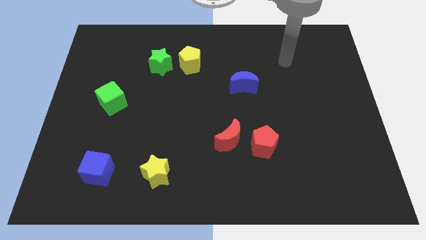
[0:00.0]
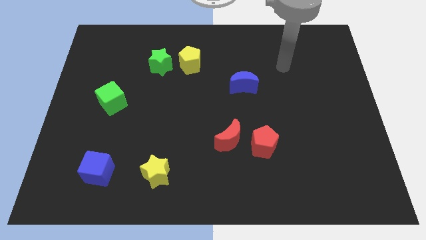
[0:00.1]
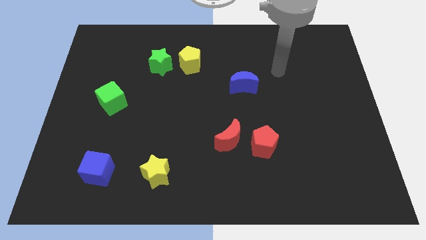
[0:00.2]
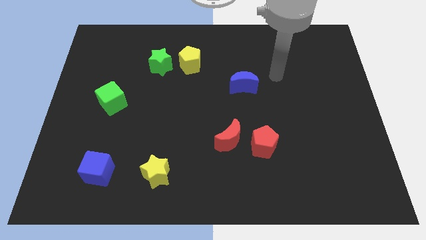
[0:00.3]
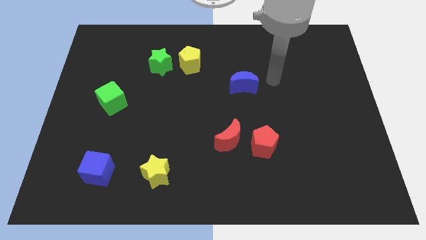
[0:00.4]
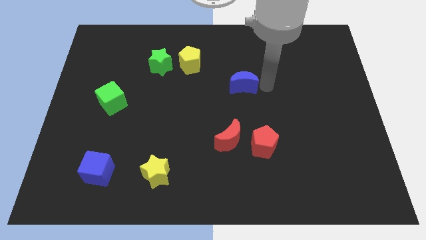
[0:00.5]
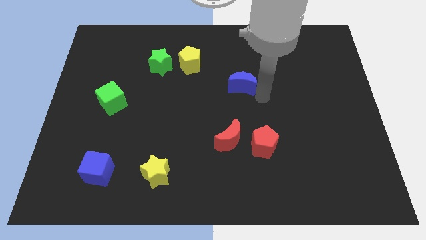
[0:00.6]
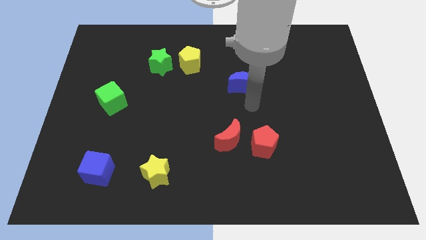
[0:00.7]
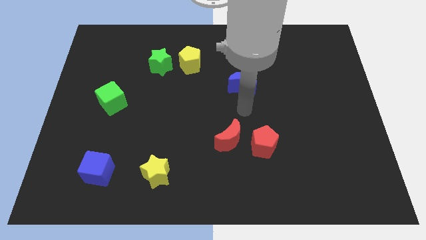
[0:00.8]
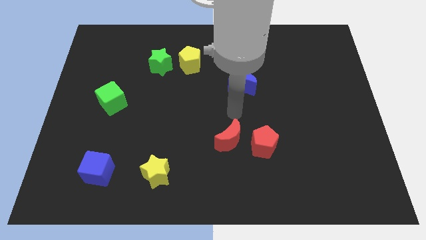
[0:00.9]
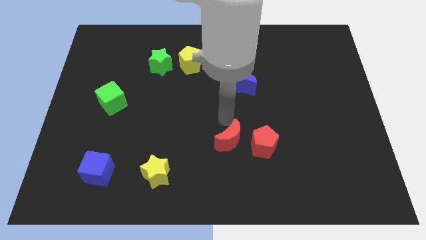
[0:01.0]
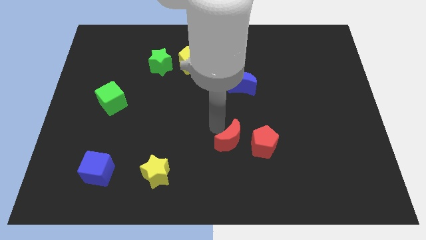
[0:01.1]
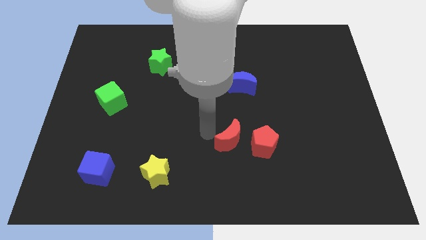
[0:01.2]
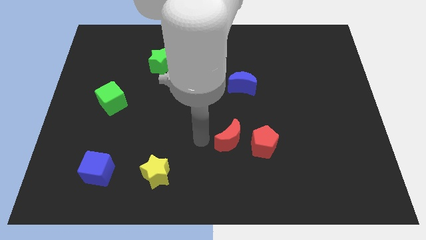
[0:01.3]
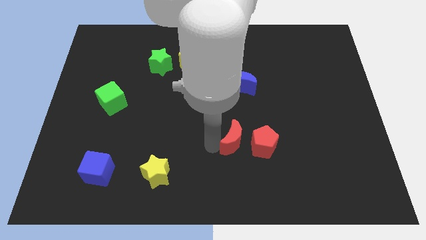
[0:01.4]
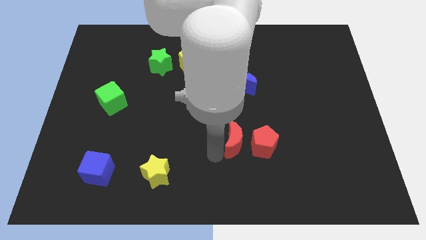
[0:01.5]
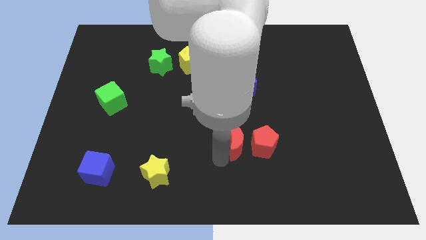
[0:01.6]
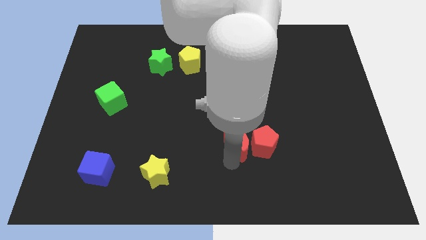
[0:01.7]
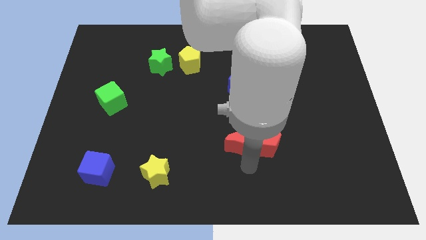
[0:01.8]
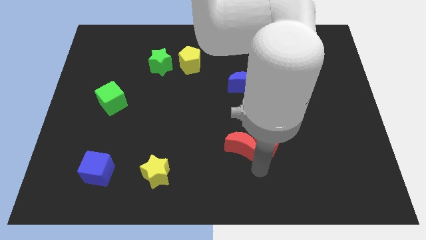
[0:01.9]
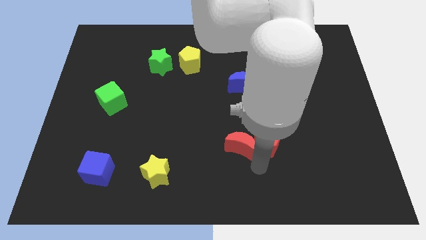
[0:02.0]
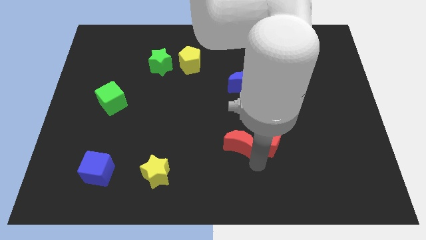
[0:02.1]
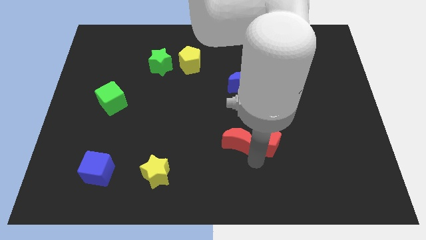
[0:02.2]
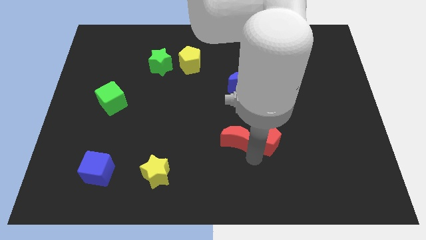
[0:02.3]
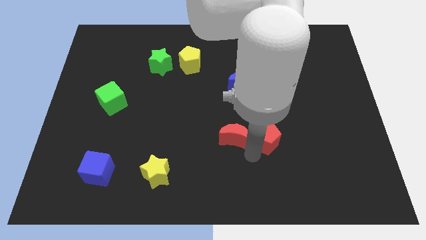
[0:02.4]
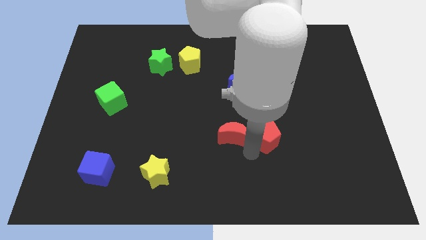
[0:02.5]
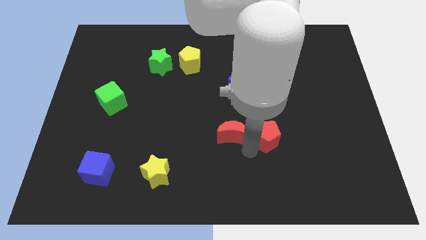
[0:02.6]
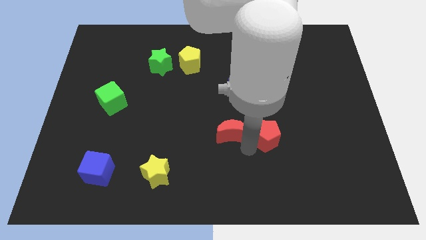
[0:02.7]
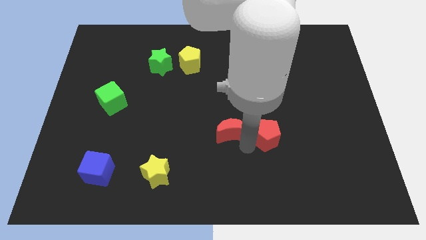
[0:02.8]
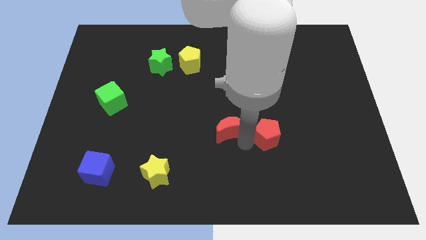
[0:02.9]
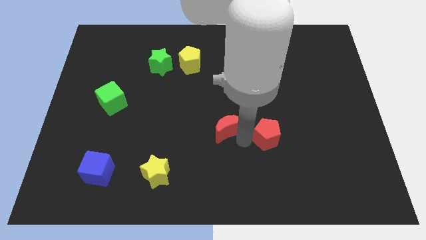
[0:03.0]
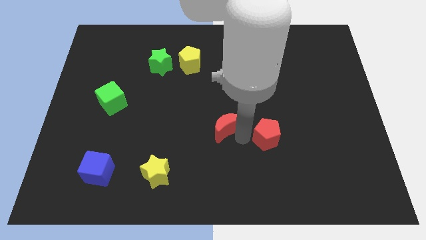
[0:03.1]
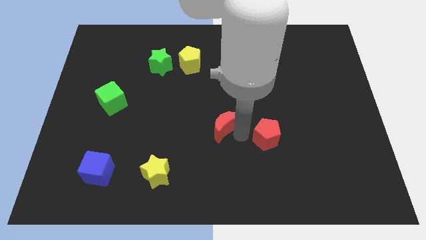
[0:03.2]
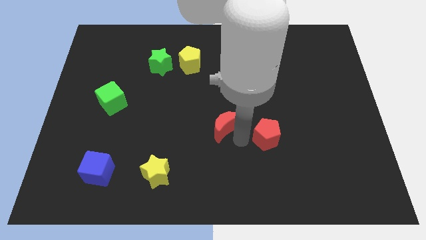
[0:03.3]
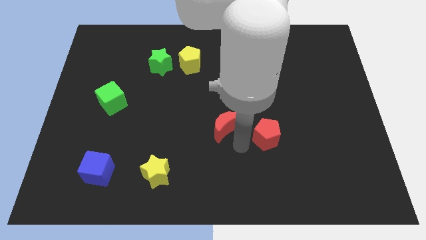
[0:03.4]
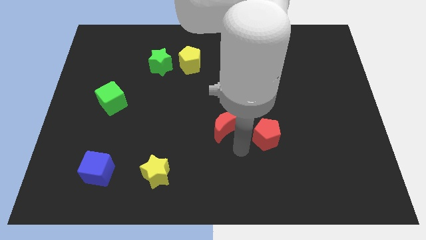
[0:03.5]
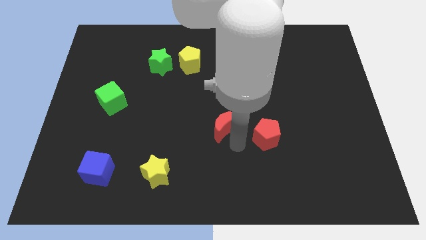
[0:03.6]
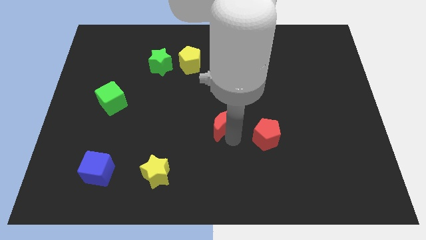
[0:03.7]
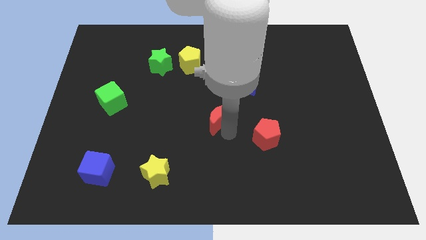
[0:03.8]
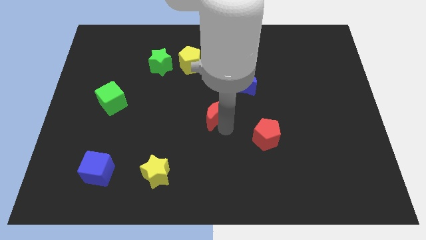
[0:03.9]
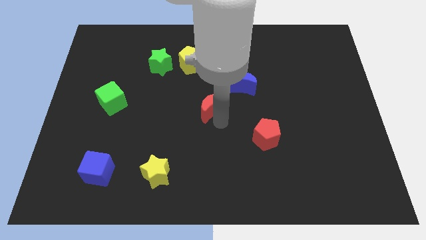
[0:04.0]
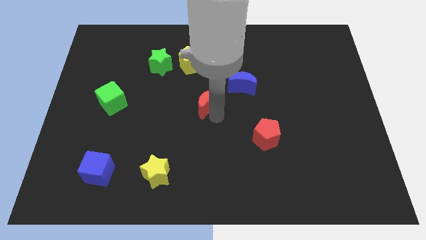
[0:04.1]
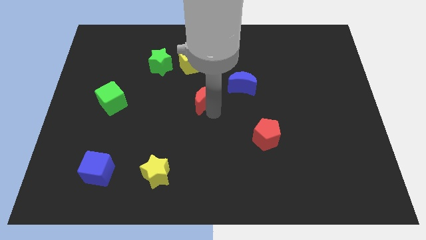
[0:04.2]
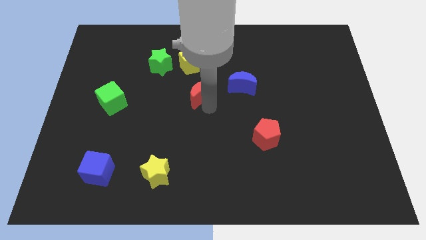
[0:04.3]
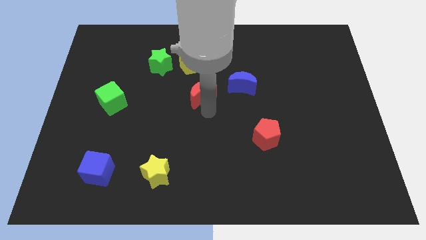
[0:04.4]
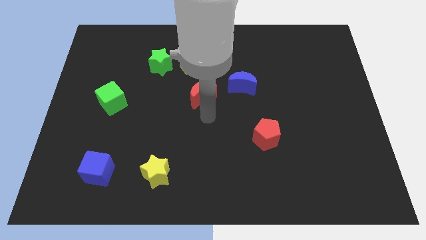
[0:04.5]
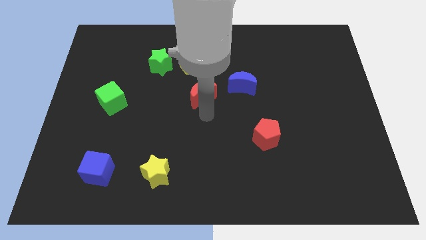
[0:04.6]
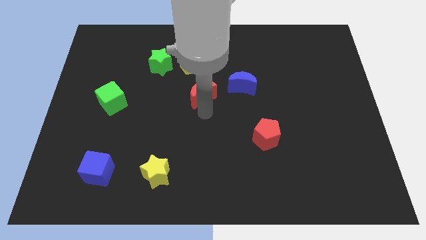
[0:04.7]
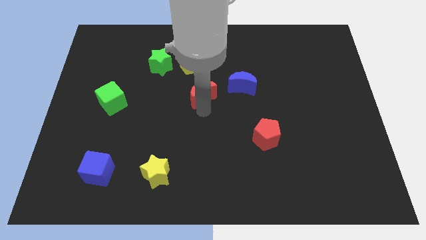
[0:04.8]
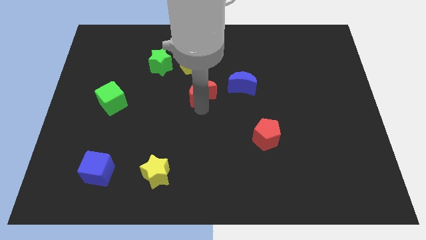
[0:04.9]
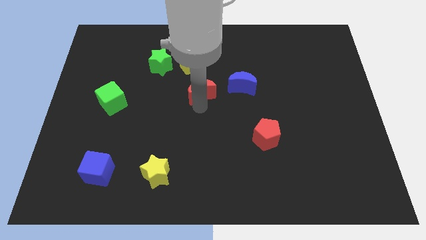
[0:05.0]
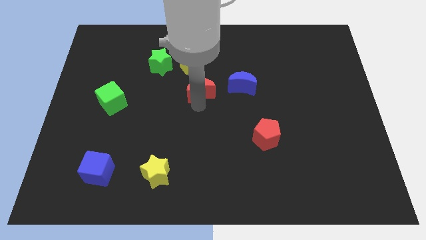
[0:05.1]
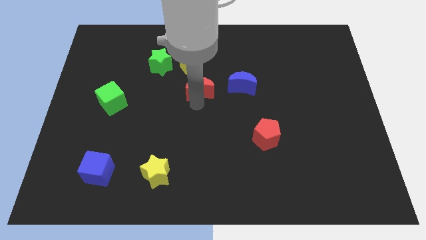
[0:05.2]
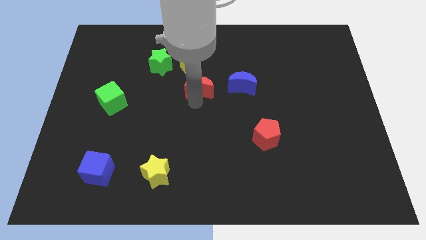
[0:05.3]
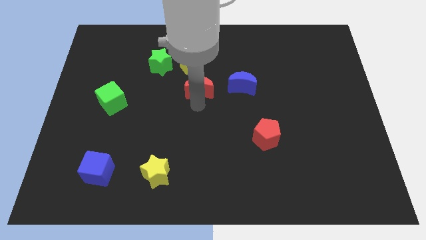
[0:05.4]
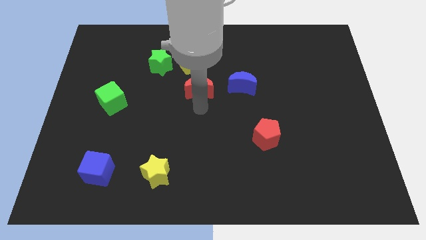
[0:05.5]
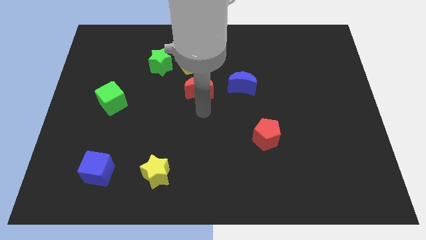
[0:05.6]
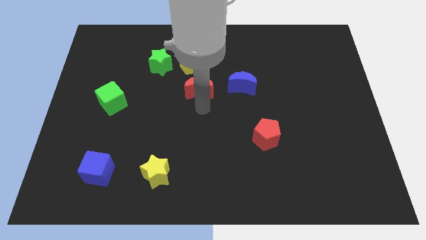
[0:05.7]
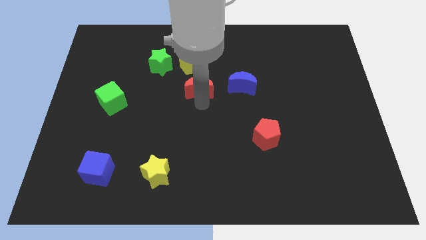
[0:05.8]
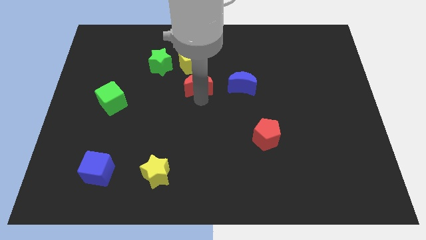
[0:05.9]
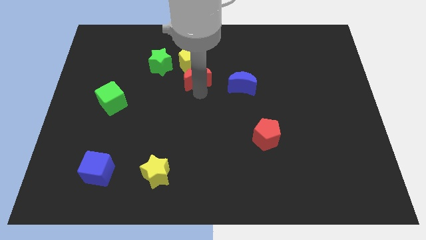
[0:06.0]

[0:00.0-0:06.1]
put the red moon close to the yellow pentagon
